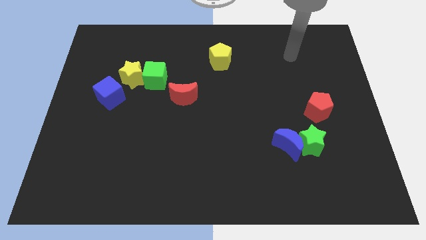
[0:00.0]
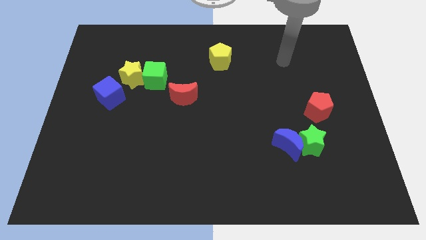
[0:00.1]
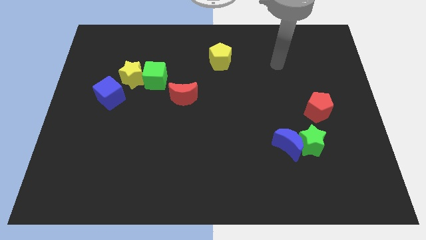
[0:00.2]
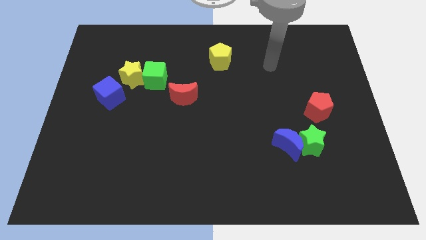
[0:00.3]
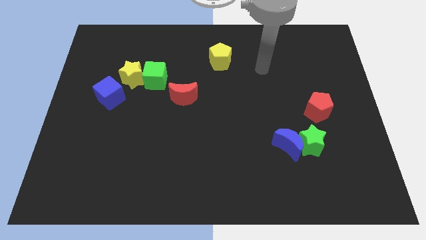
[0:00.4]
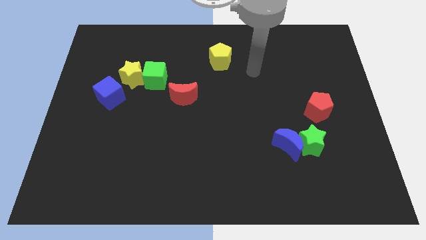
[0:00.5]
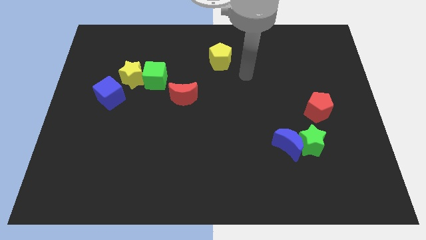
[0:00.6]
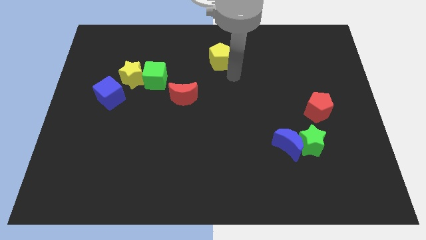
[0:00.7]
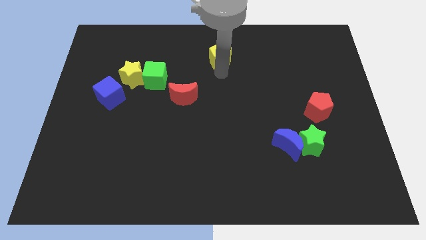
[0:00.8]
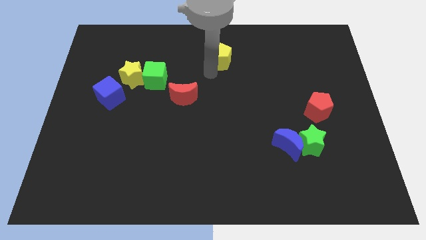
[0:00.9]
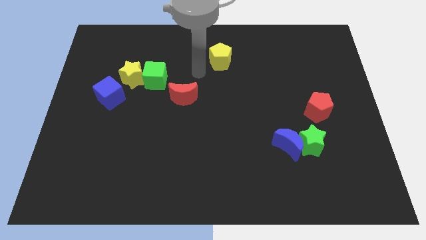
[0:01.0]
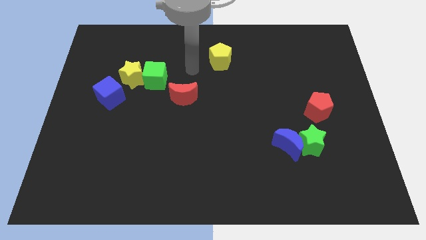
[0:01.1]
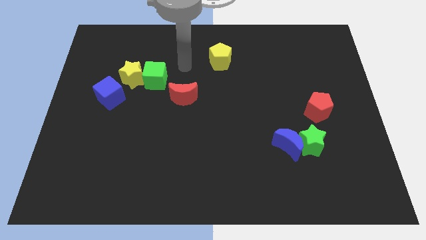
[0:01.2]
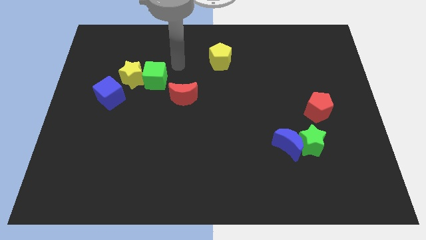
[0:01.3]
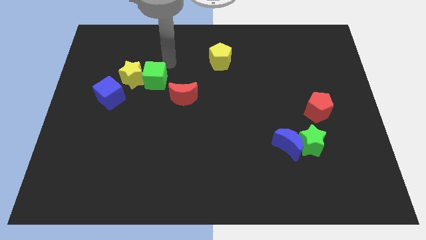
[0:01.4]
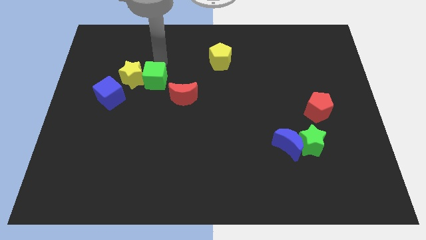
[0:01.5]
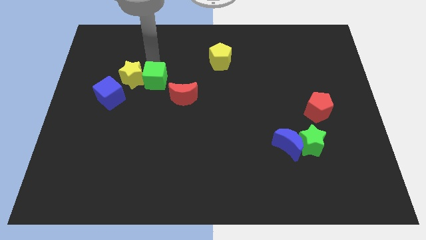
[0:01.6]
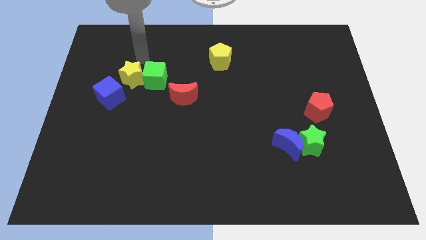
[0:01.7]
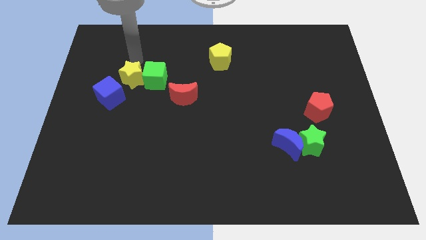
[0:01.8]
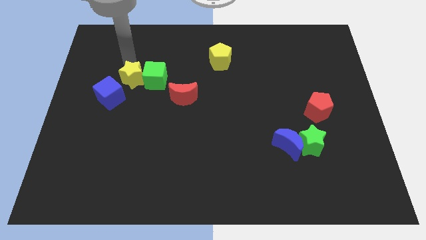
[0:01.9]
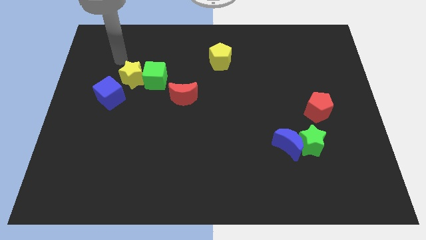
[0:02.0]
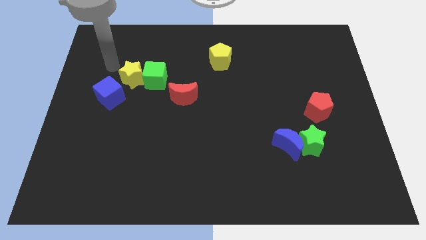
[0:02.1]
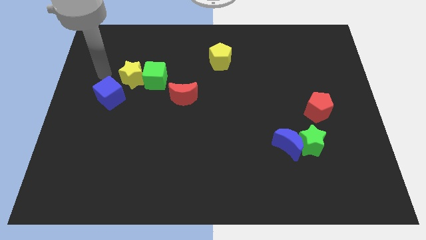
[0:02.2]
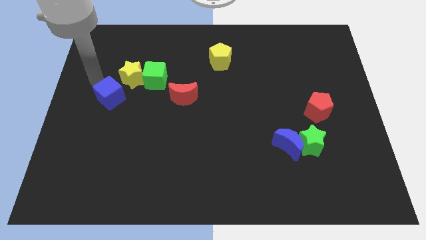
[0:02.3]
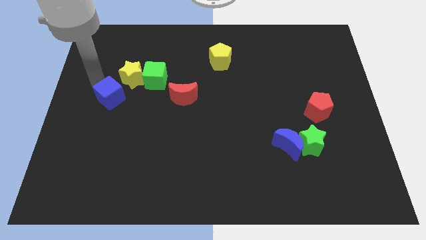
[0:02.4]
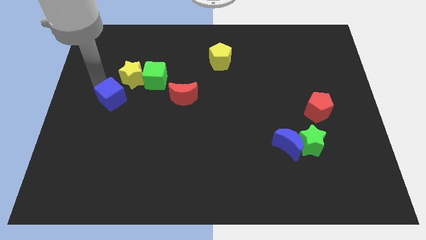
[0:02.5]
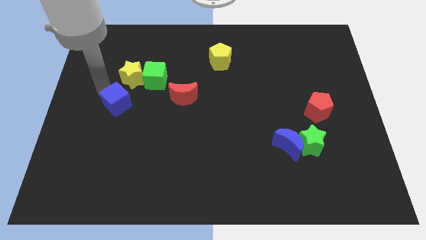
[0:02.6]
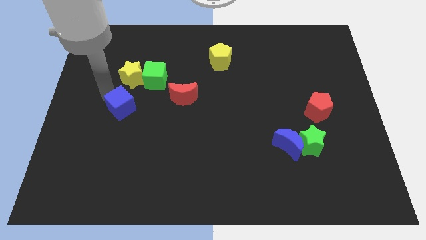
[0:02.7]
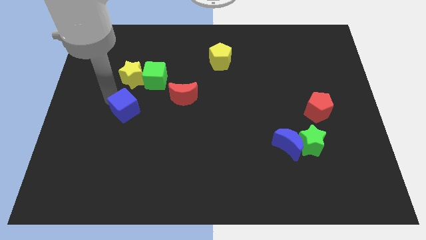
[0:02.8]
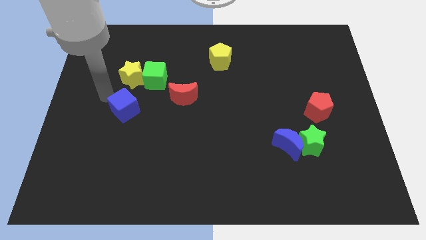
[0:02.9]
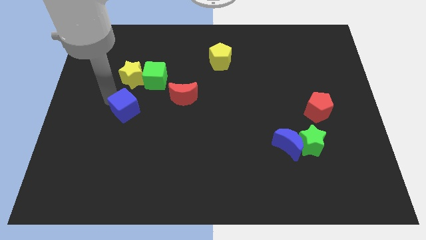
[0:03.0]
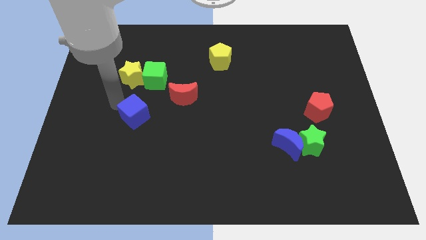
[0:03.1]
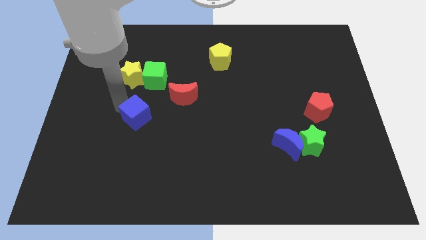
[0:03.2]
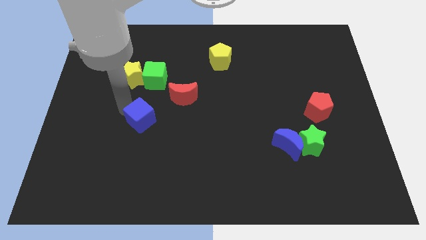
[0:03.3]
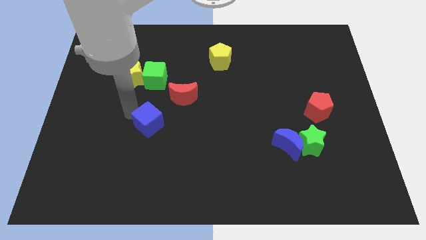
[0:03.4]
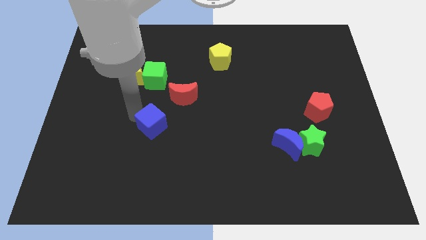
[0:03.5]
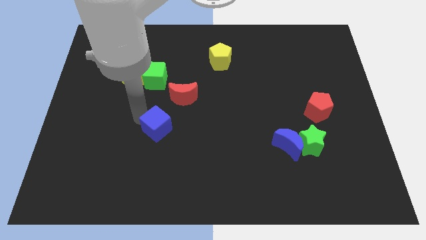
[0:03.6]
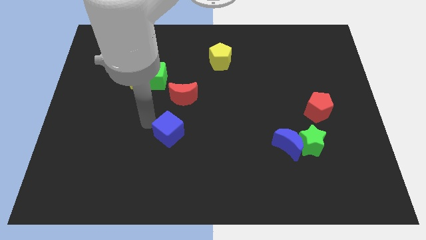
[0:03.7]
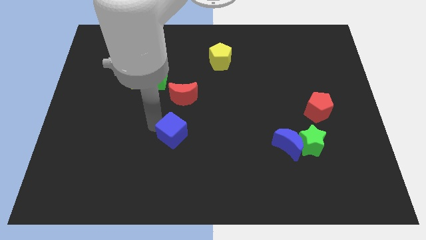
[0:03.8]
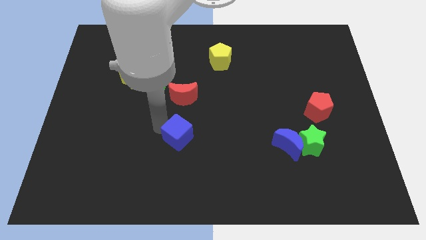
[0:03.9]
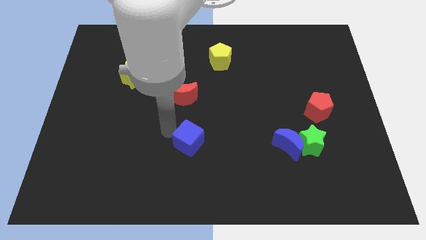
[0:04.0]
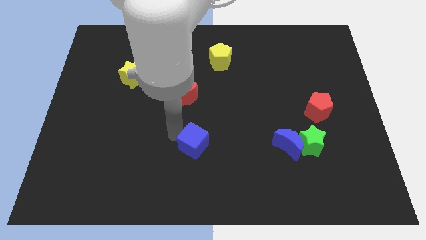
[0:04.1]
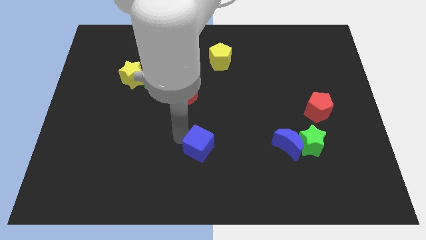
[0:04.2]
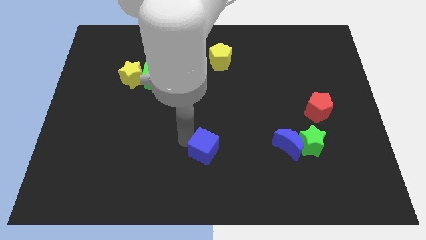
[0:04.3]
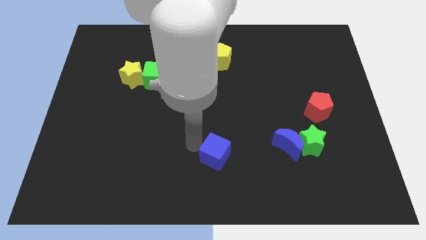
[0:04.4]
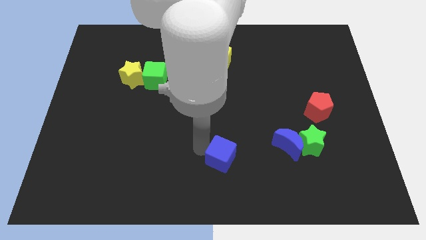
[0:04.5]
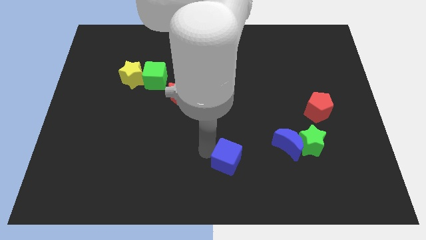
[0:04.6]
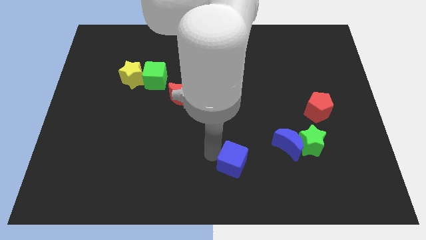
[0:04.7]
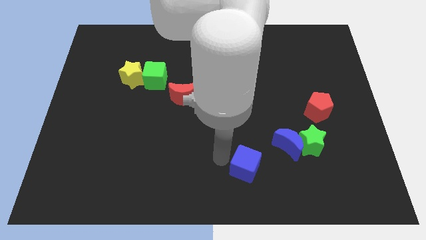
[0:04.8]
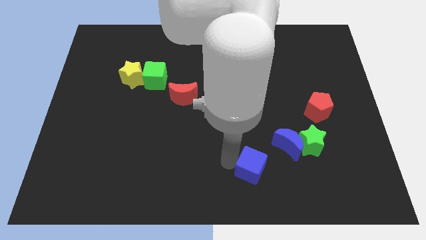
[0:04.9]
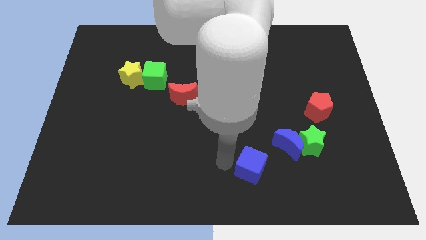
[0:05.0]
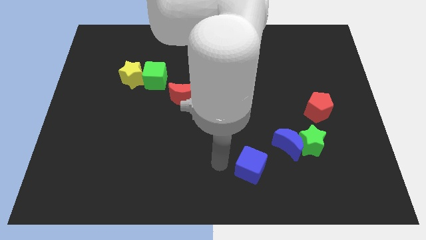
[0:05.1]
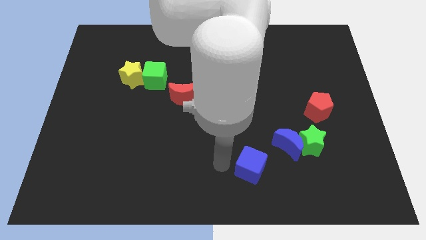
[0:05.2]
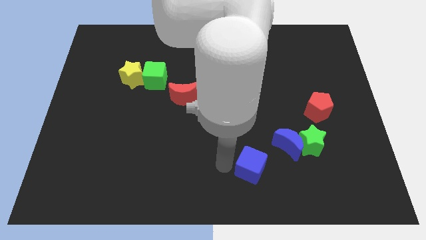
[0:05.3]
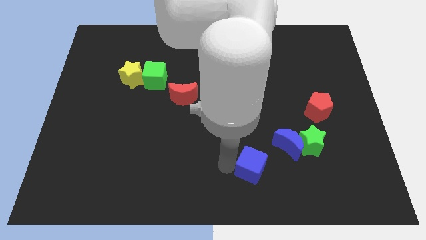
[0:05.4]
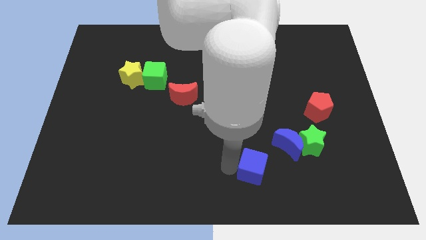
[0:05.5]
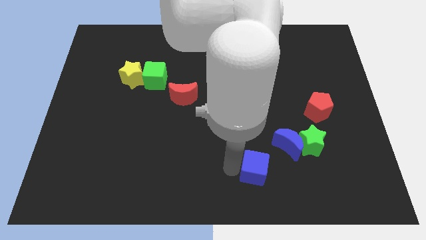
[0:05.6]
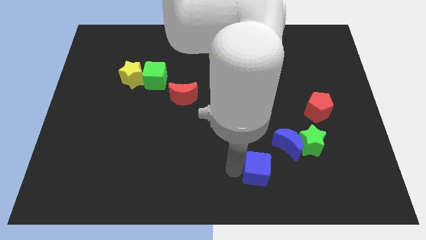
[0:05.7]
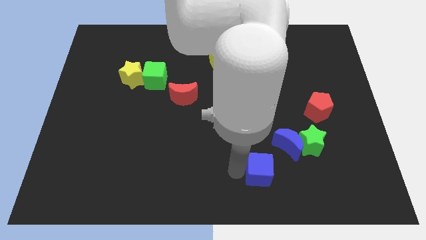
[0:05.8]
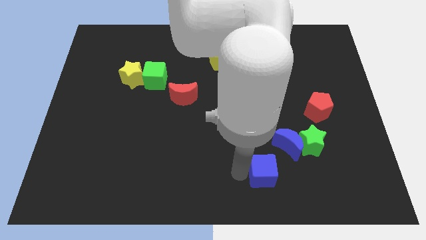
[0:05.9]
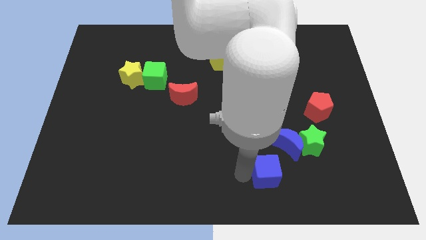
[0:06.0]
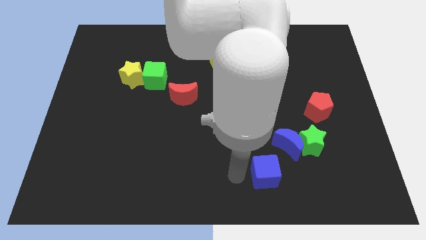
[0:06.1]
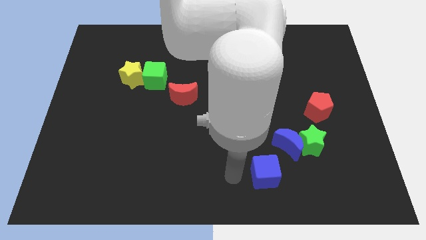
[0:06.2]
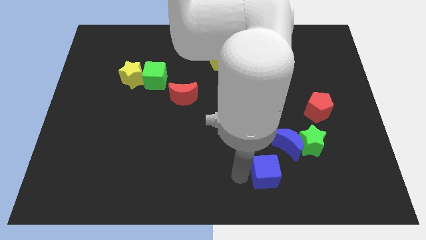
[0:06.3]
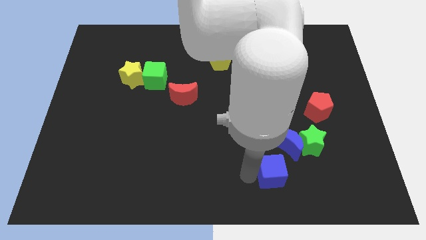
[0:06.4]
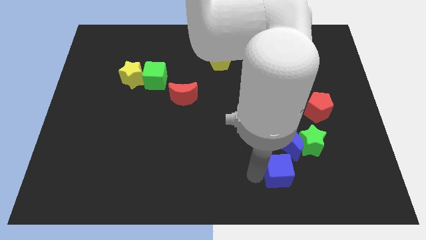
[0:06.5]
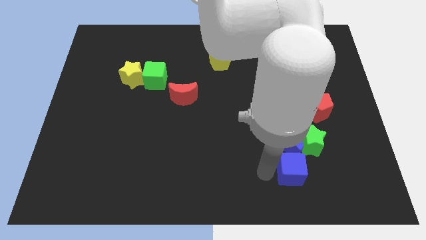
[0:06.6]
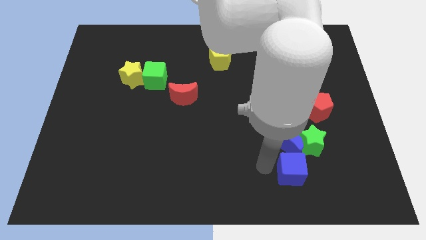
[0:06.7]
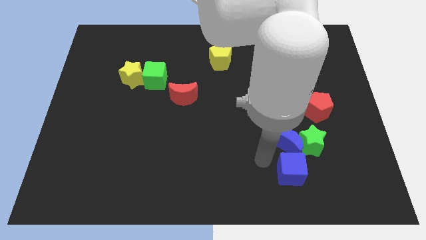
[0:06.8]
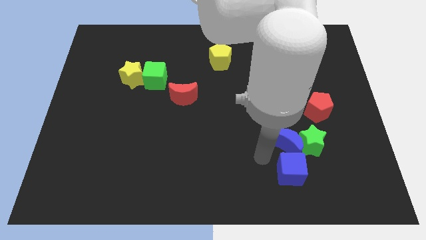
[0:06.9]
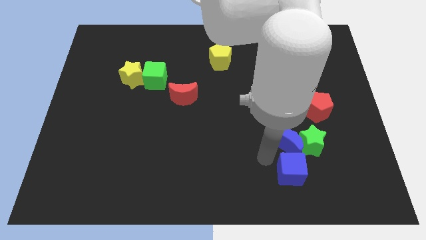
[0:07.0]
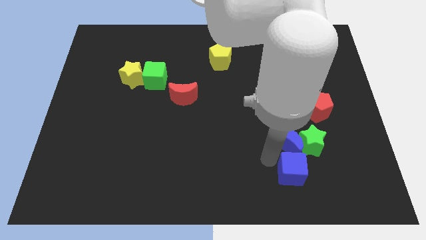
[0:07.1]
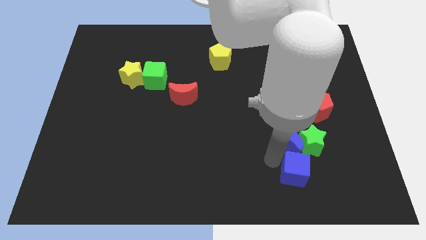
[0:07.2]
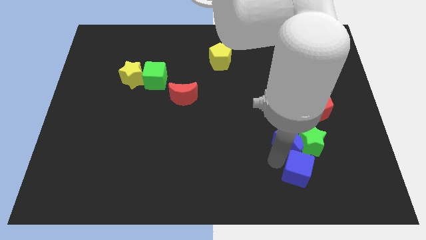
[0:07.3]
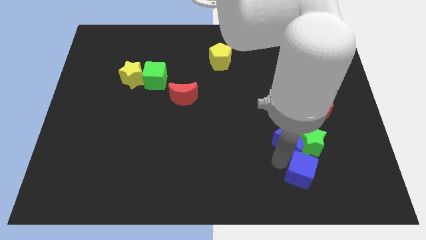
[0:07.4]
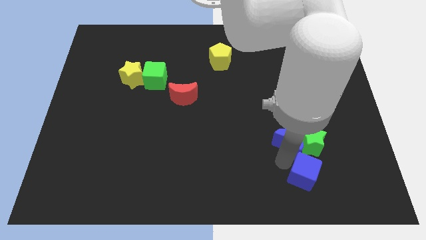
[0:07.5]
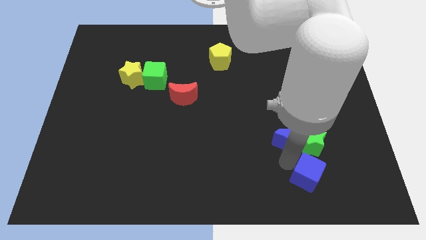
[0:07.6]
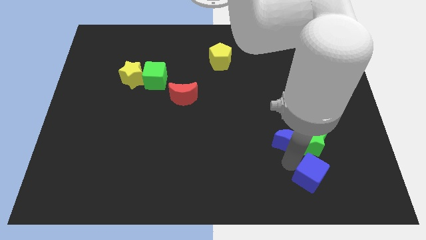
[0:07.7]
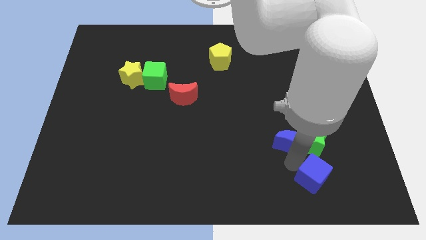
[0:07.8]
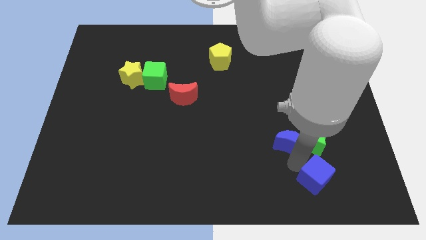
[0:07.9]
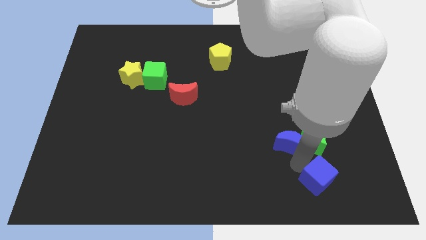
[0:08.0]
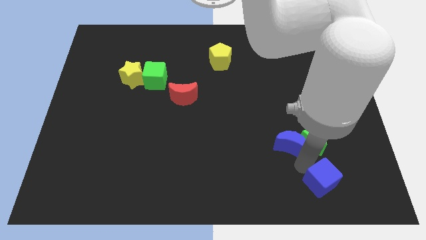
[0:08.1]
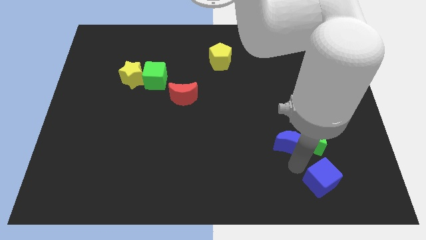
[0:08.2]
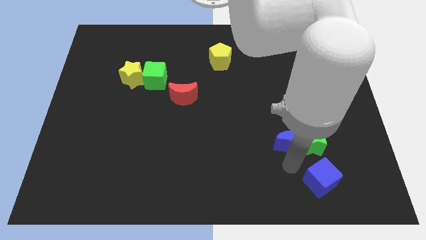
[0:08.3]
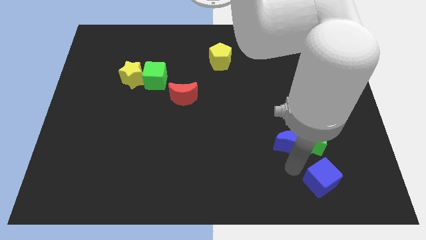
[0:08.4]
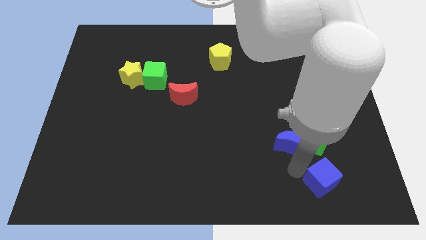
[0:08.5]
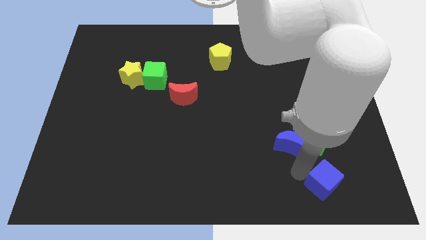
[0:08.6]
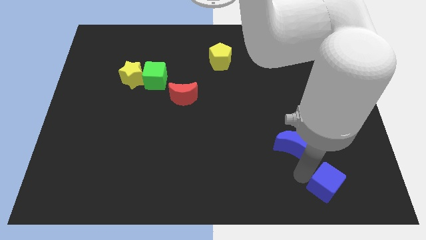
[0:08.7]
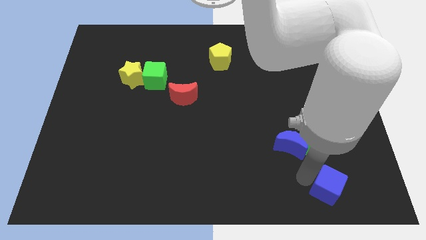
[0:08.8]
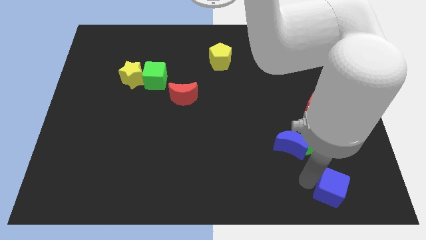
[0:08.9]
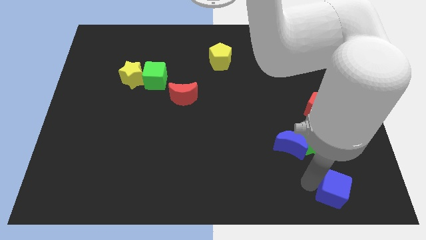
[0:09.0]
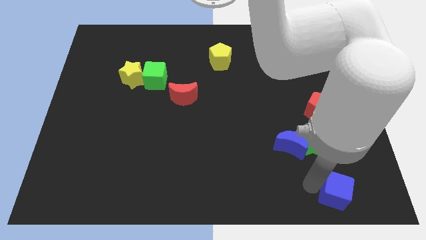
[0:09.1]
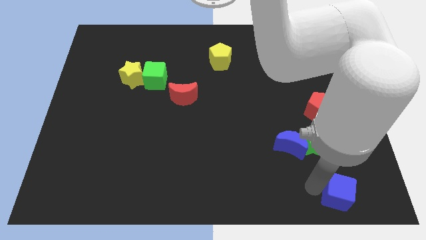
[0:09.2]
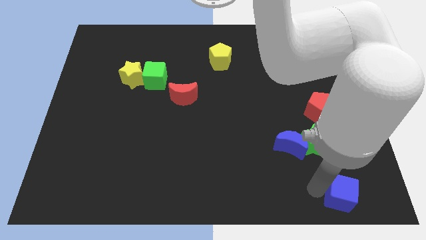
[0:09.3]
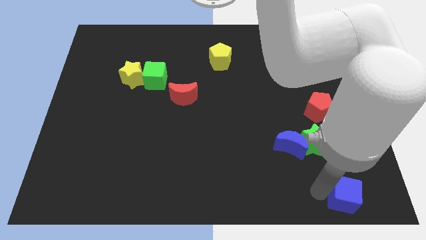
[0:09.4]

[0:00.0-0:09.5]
put the blue cube to the bottom right corner
